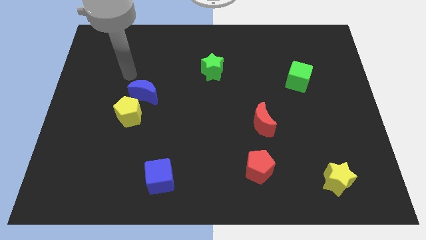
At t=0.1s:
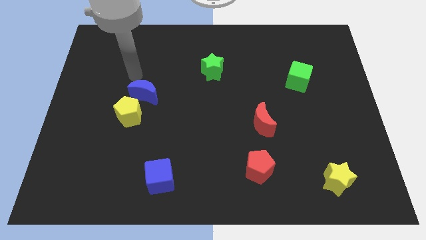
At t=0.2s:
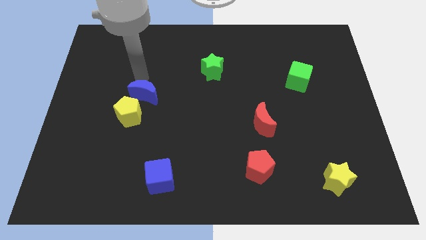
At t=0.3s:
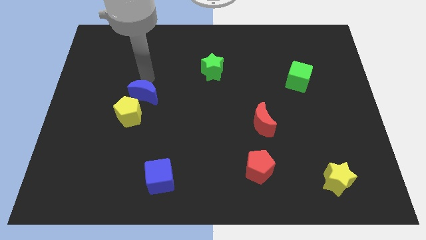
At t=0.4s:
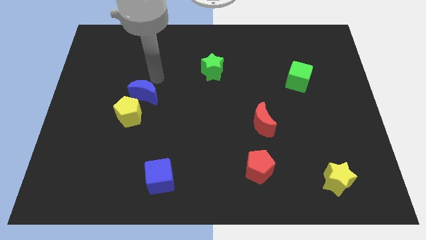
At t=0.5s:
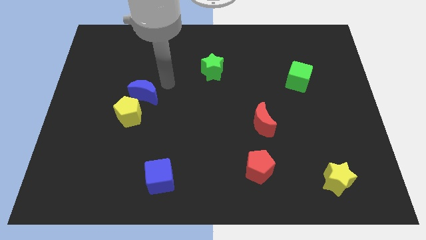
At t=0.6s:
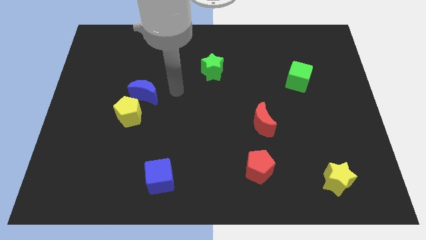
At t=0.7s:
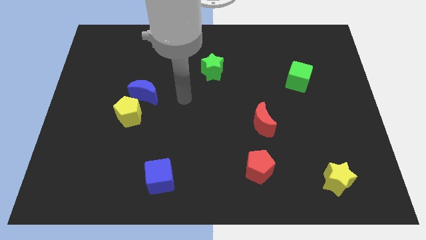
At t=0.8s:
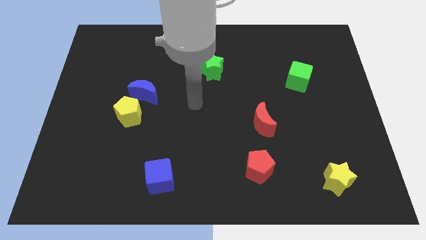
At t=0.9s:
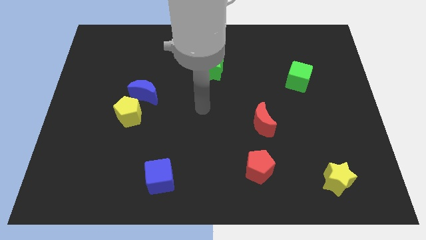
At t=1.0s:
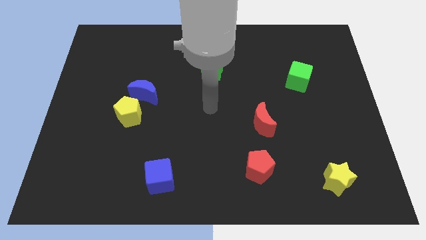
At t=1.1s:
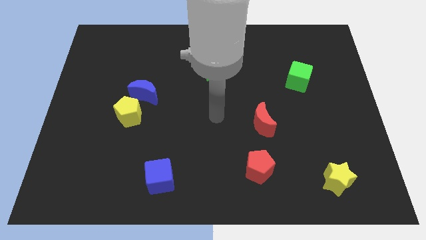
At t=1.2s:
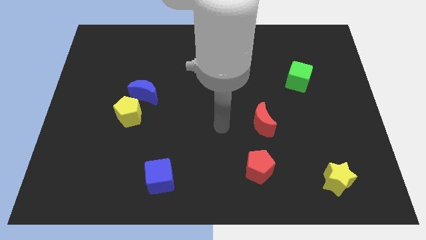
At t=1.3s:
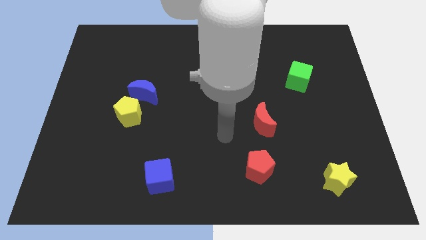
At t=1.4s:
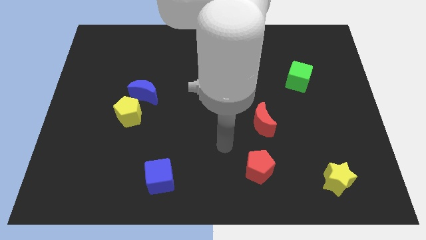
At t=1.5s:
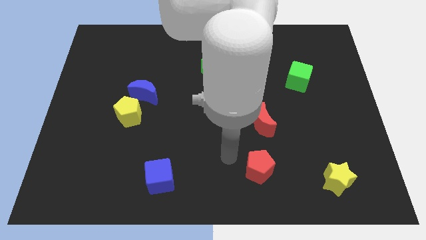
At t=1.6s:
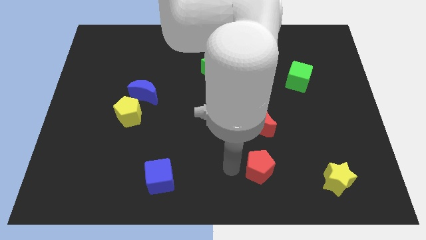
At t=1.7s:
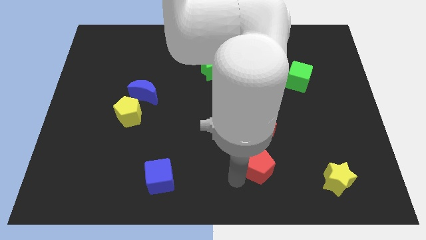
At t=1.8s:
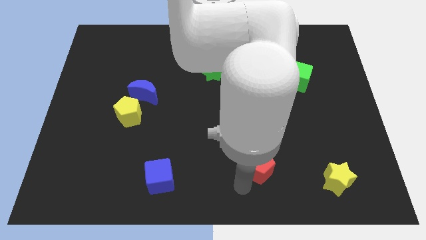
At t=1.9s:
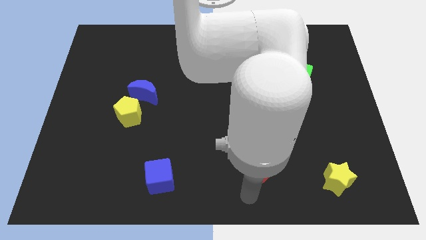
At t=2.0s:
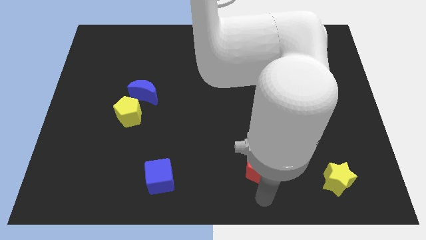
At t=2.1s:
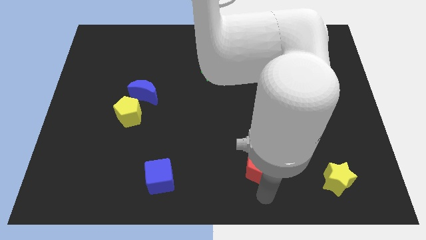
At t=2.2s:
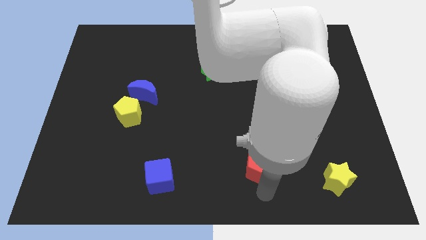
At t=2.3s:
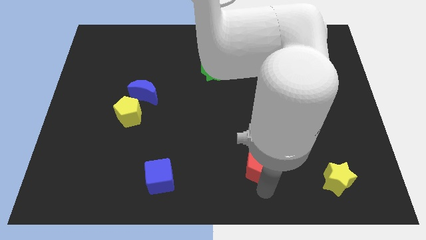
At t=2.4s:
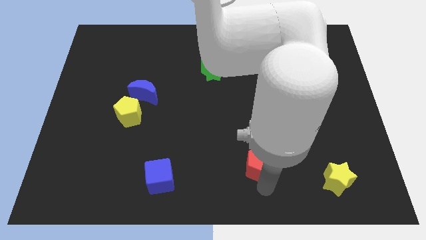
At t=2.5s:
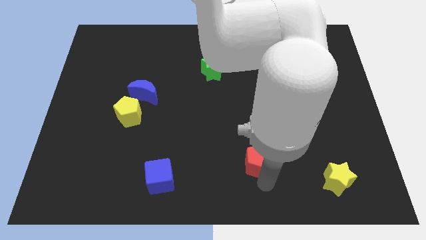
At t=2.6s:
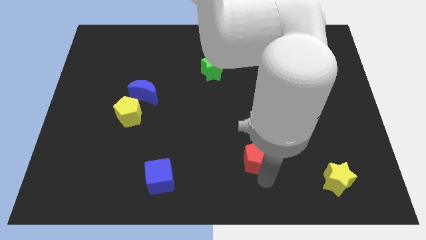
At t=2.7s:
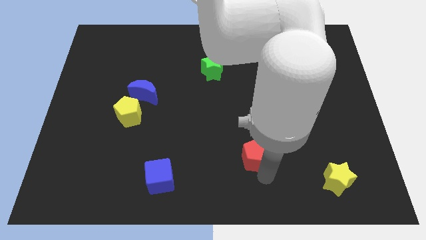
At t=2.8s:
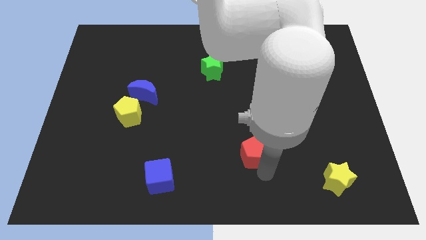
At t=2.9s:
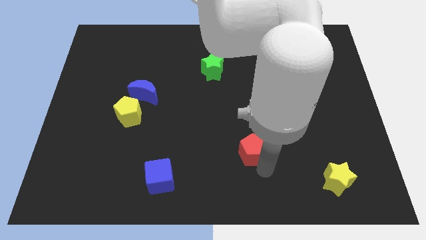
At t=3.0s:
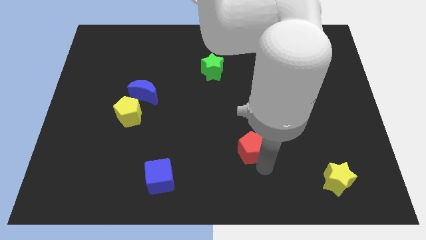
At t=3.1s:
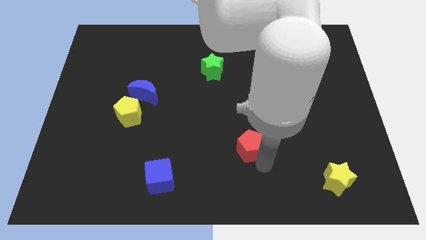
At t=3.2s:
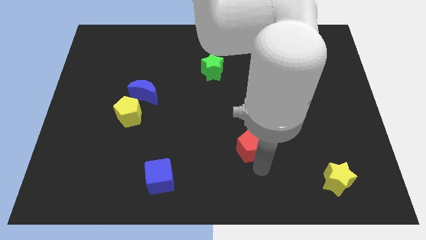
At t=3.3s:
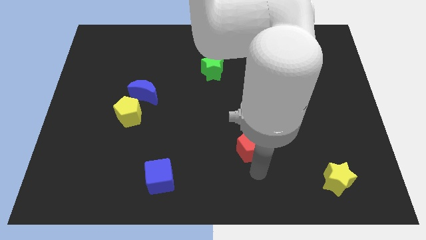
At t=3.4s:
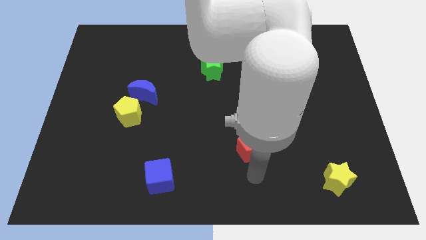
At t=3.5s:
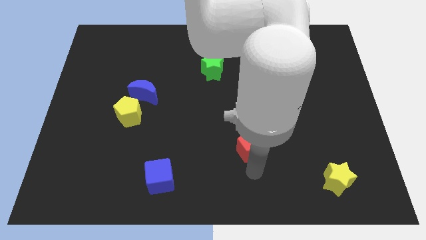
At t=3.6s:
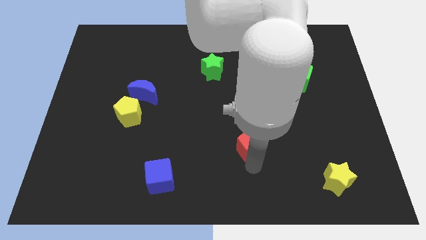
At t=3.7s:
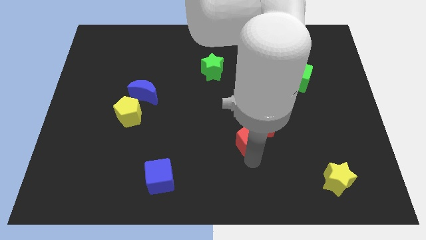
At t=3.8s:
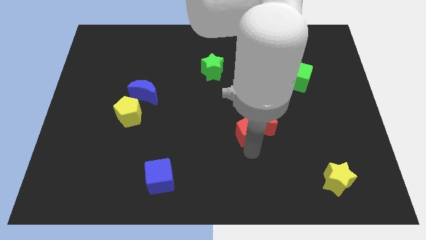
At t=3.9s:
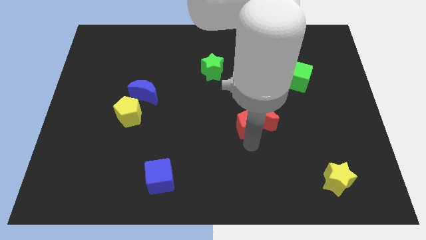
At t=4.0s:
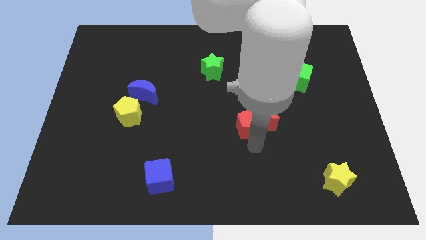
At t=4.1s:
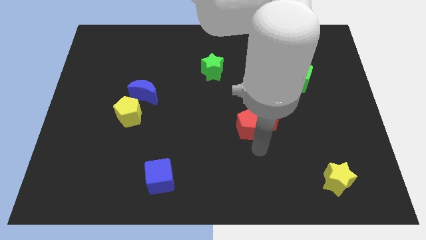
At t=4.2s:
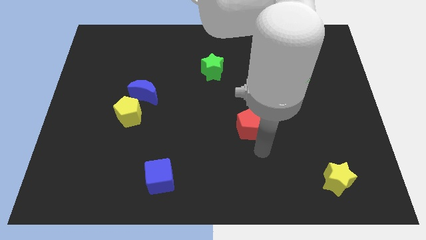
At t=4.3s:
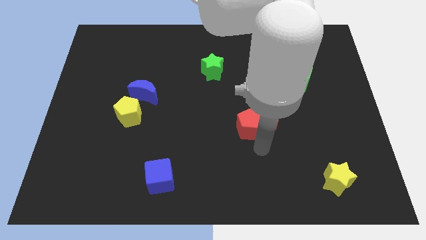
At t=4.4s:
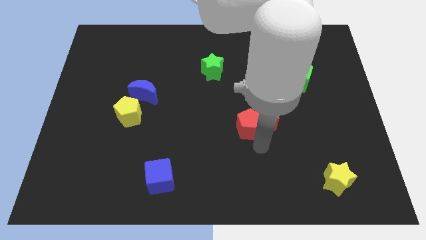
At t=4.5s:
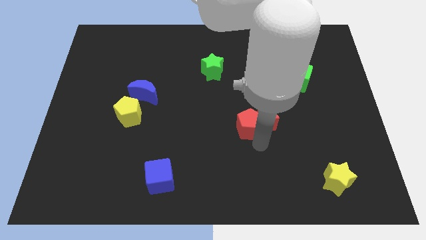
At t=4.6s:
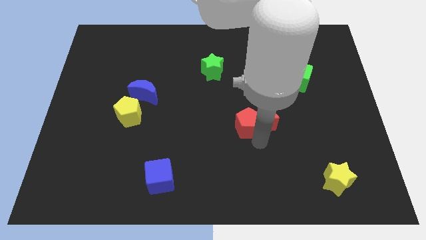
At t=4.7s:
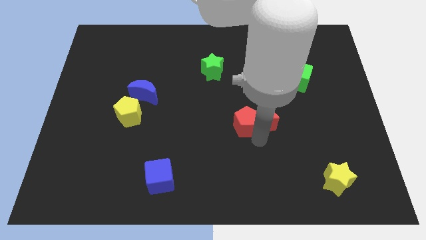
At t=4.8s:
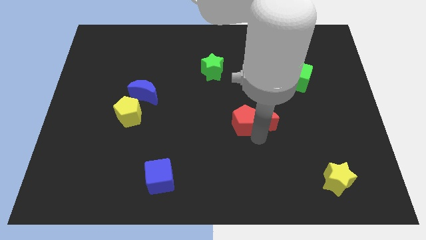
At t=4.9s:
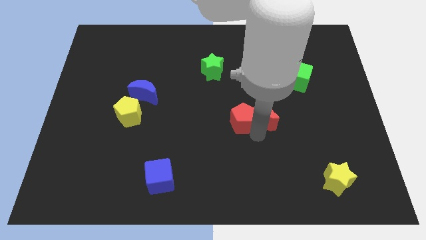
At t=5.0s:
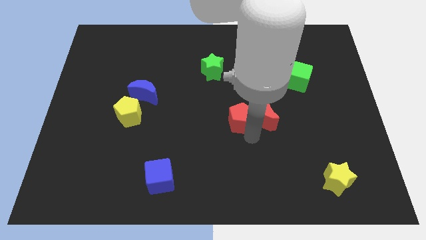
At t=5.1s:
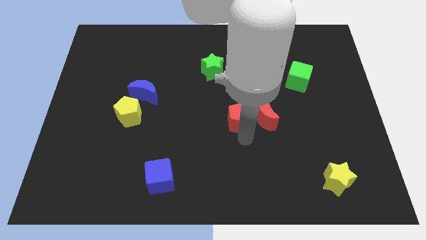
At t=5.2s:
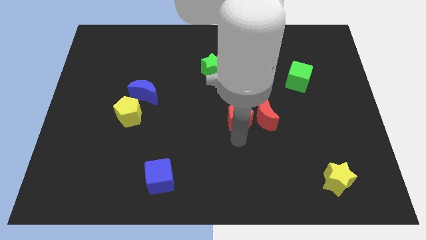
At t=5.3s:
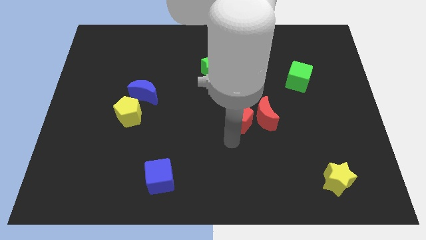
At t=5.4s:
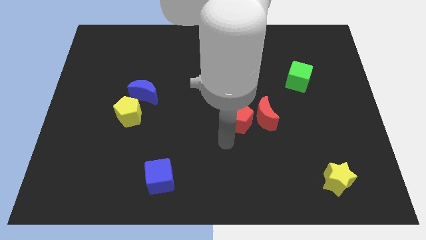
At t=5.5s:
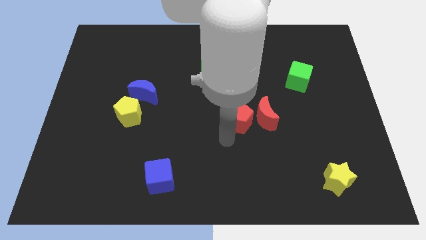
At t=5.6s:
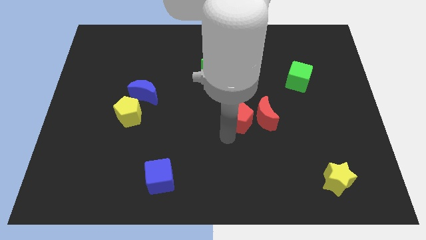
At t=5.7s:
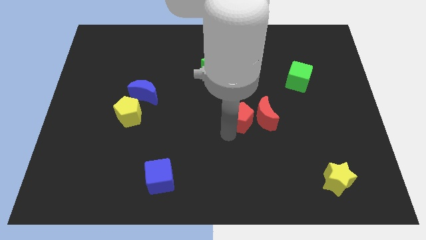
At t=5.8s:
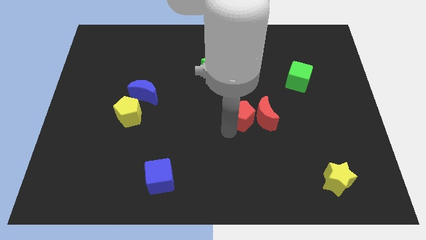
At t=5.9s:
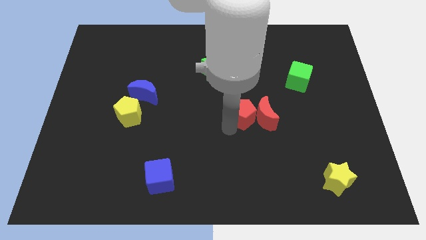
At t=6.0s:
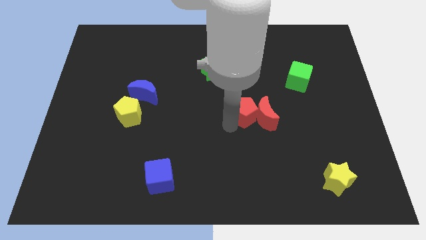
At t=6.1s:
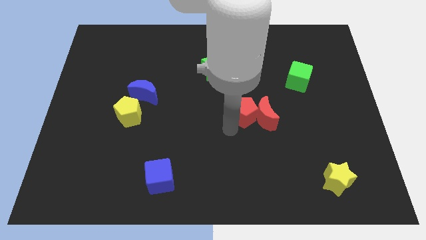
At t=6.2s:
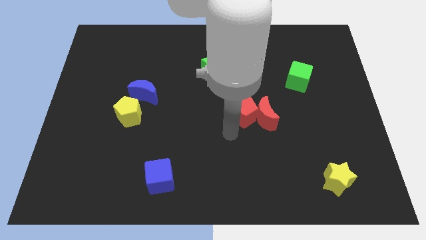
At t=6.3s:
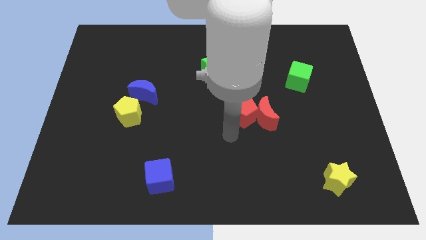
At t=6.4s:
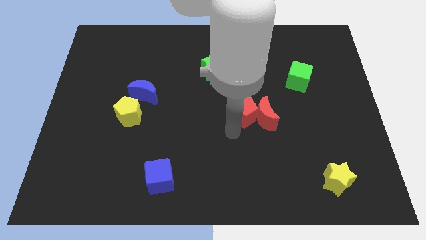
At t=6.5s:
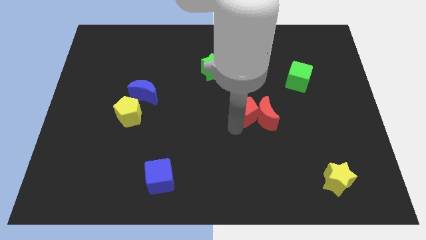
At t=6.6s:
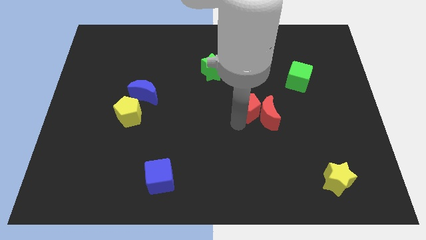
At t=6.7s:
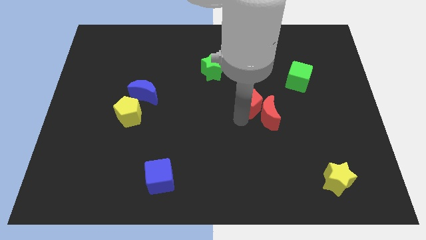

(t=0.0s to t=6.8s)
slide the red pentagon to the top of the red moon

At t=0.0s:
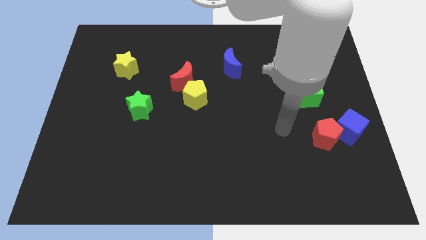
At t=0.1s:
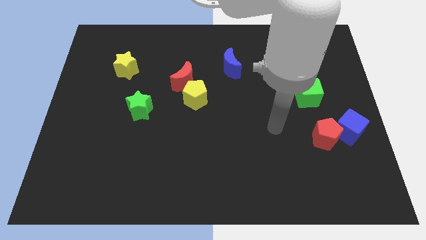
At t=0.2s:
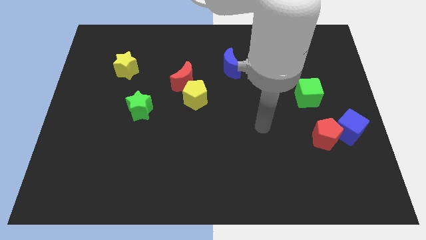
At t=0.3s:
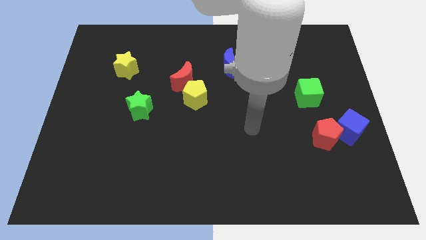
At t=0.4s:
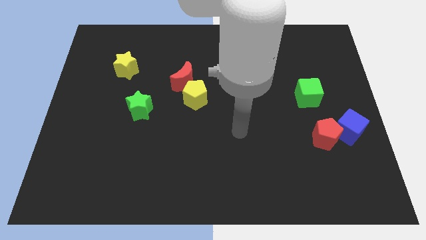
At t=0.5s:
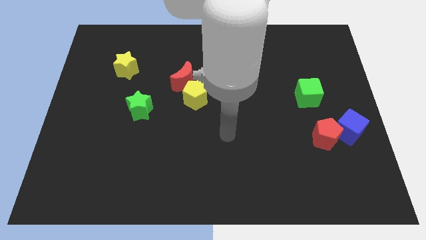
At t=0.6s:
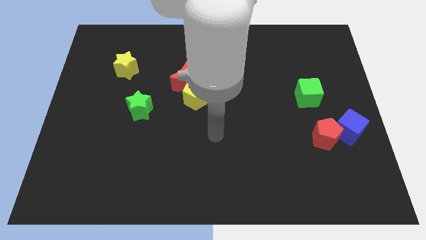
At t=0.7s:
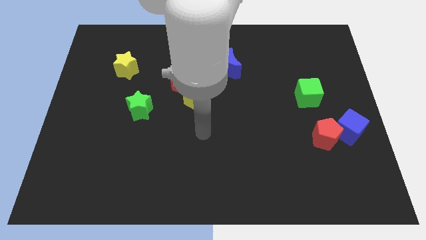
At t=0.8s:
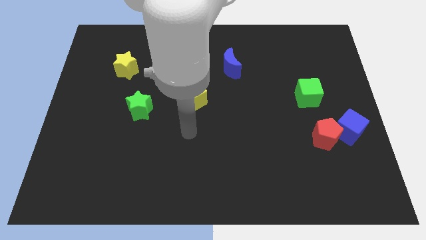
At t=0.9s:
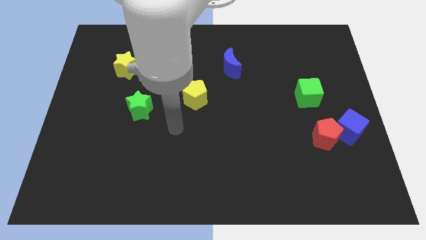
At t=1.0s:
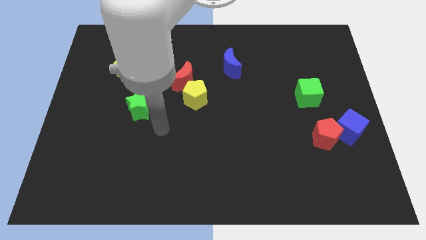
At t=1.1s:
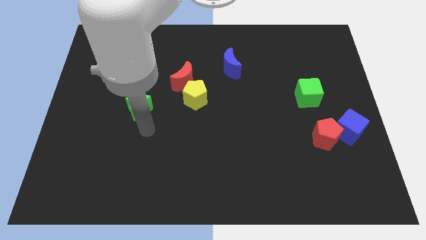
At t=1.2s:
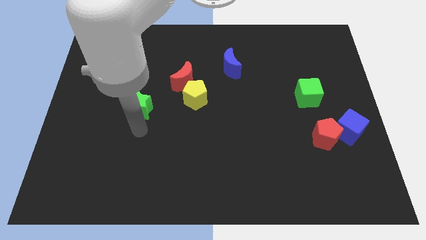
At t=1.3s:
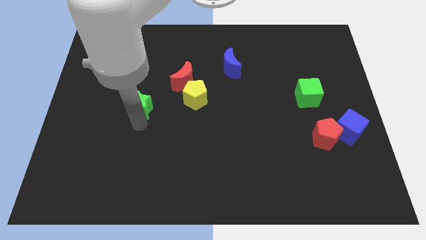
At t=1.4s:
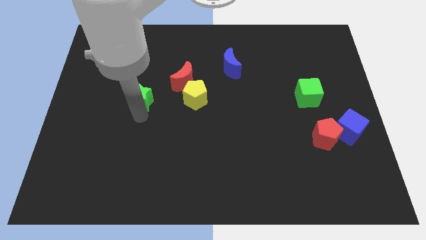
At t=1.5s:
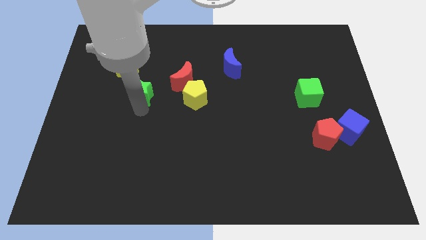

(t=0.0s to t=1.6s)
put the green star to the left side of the red moon
